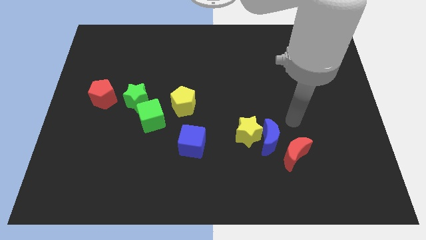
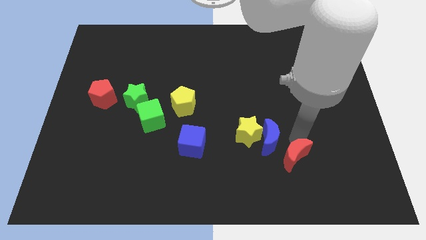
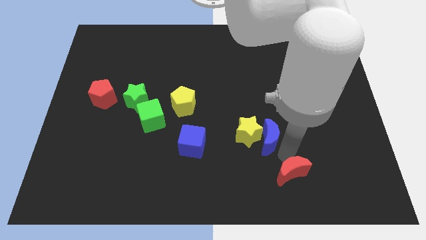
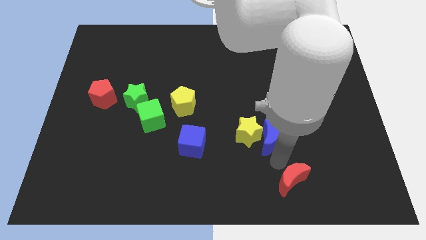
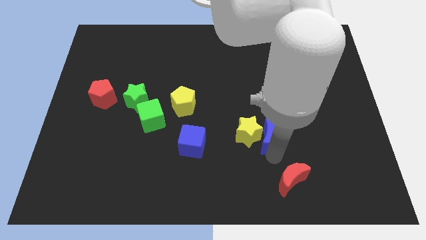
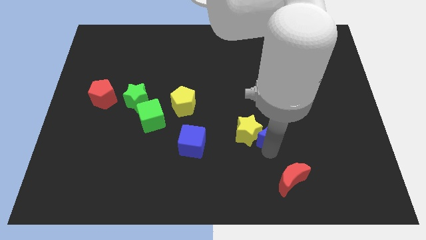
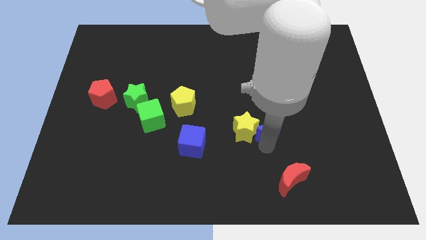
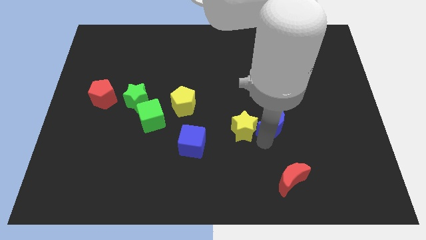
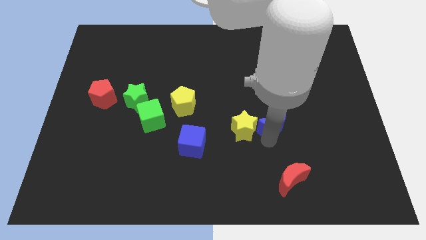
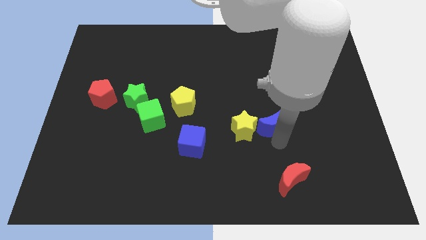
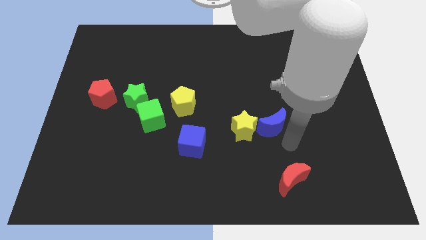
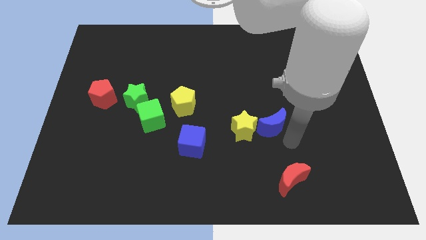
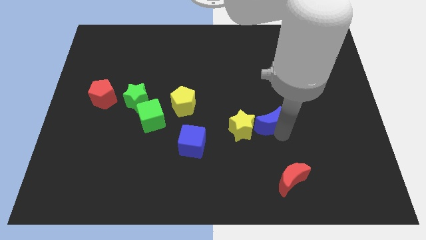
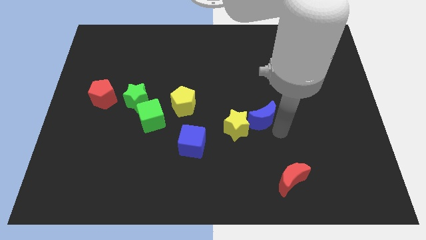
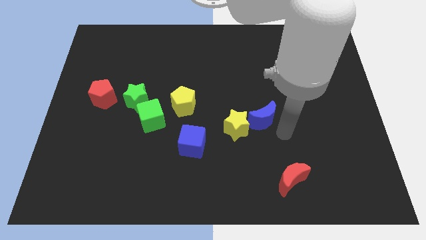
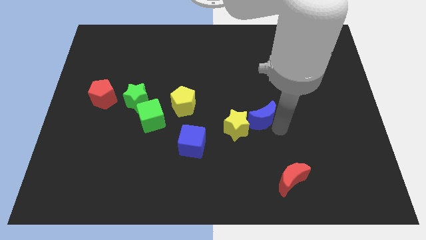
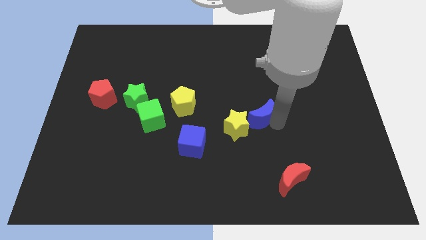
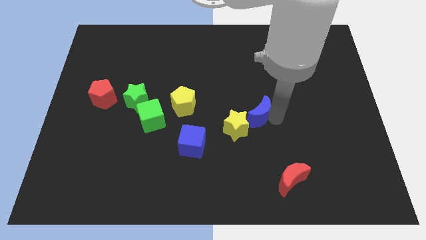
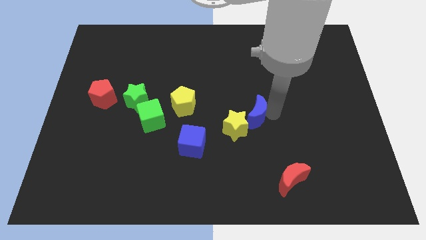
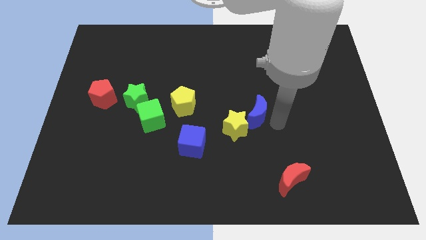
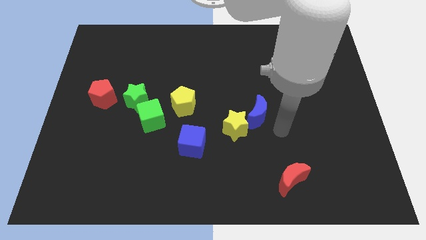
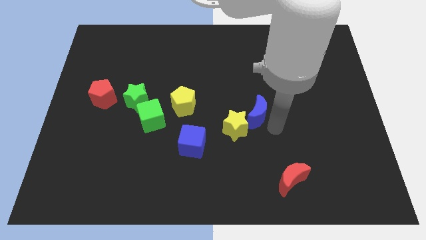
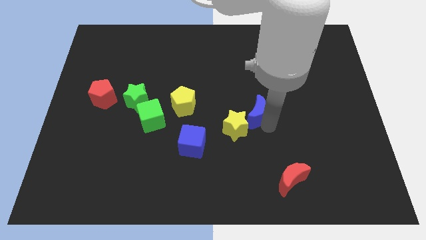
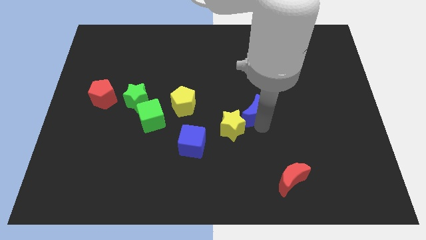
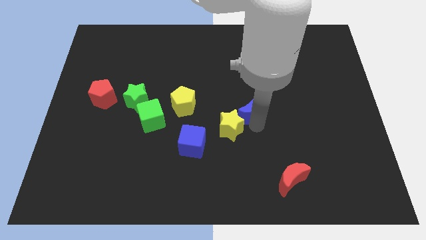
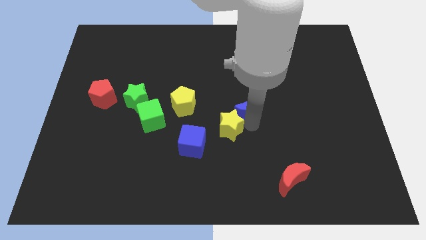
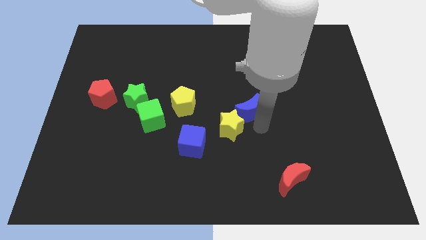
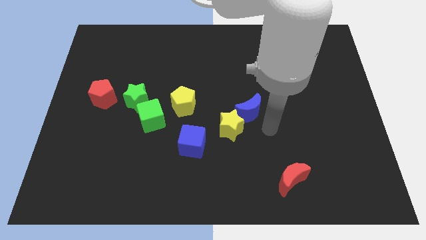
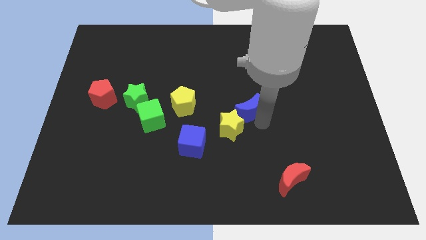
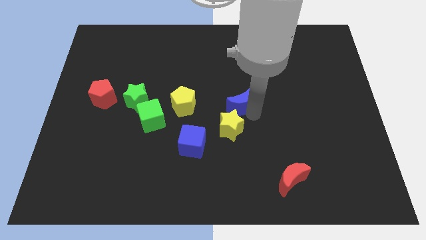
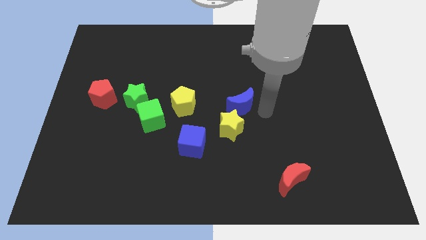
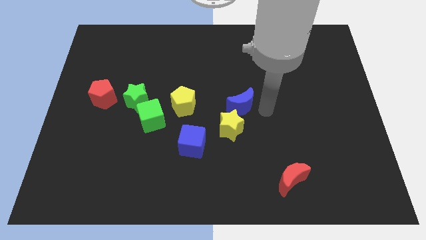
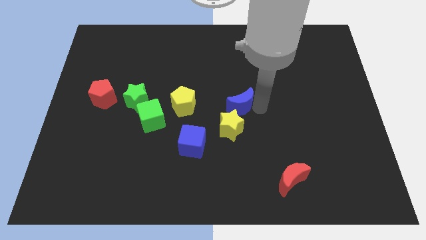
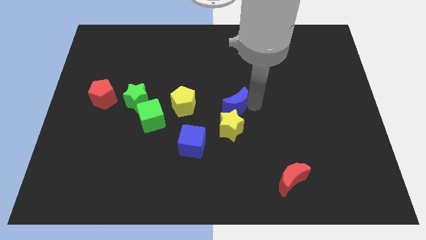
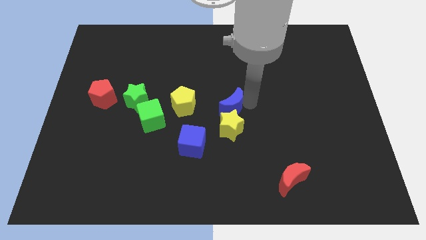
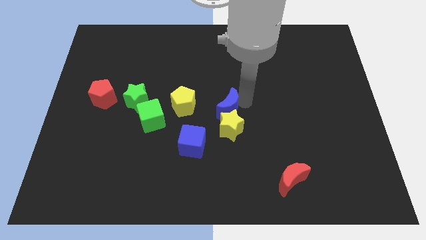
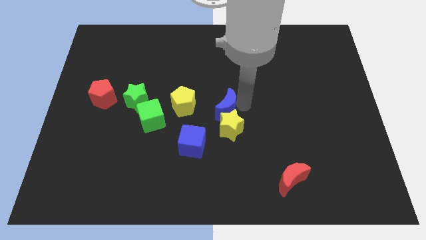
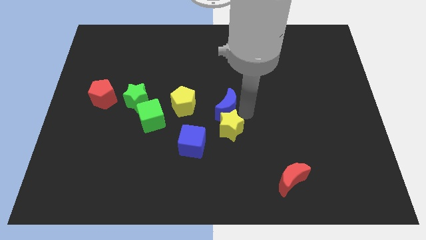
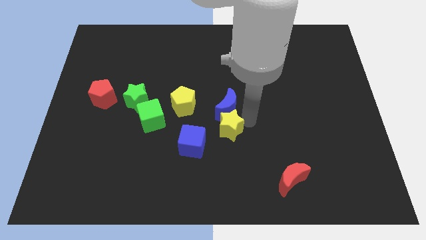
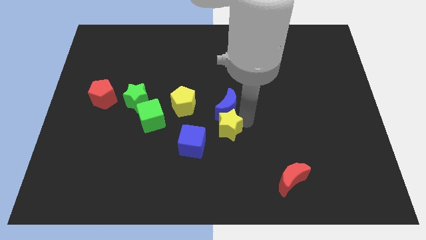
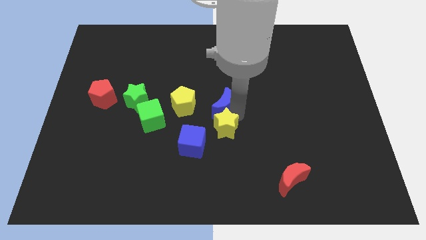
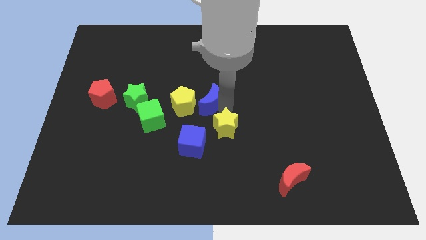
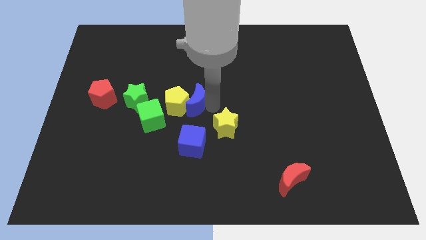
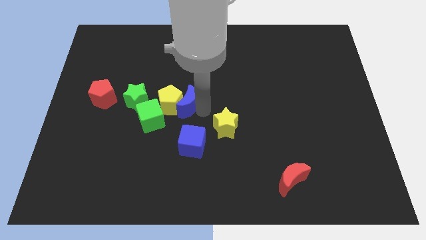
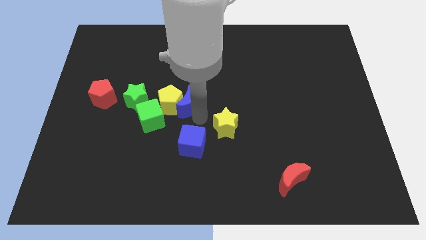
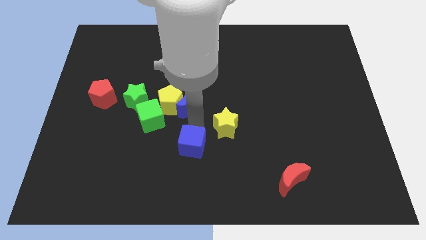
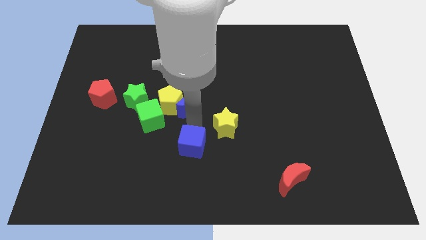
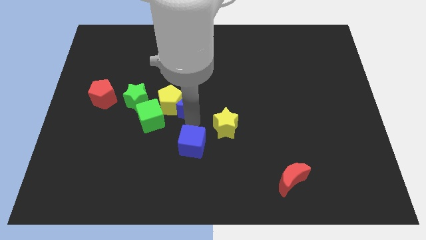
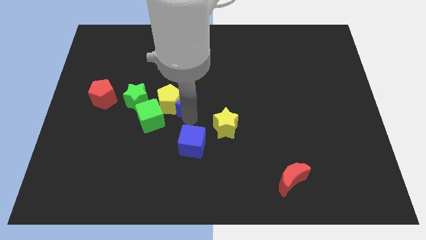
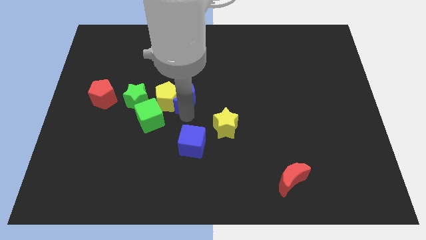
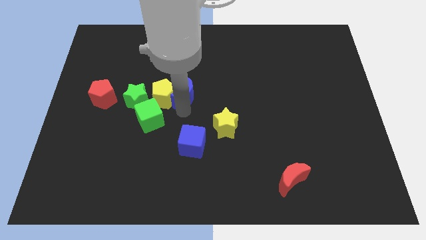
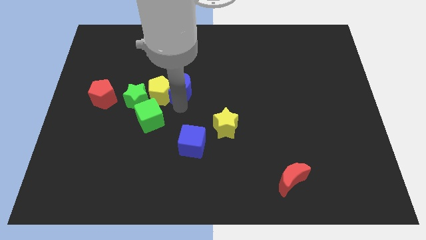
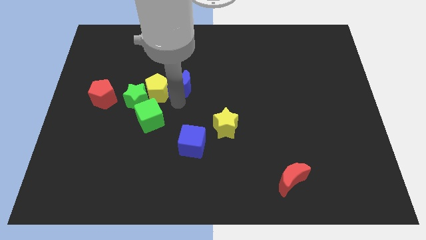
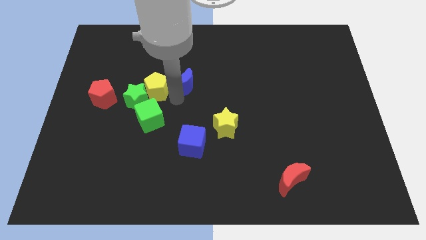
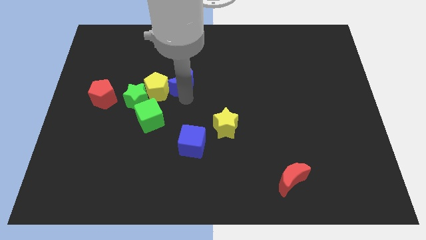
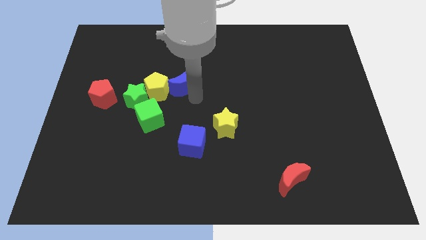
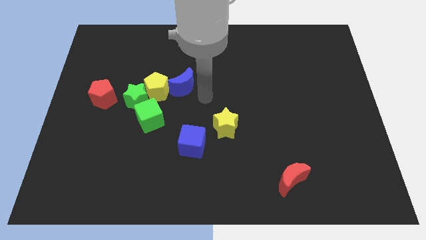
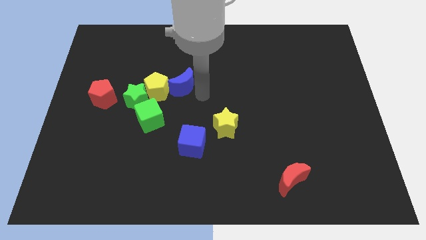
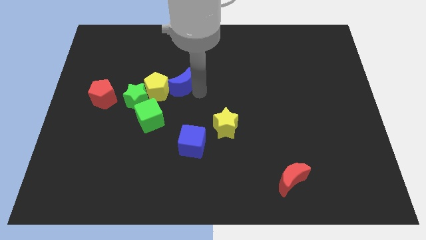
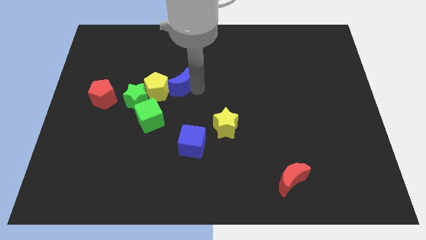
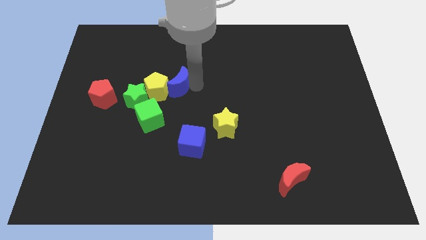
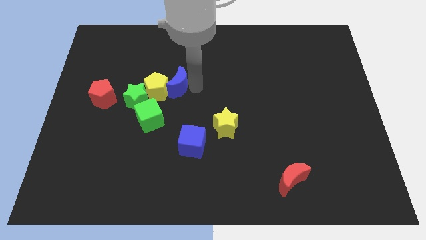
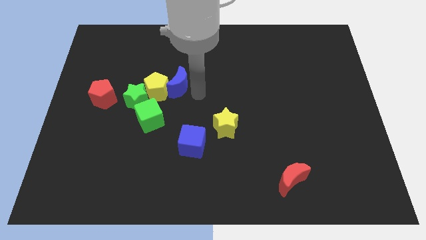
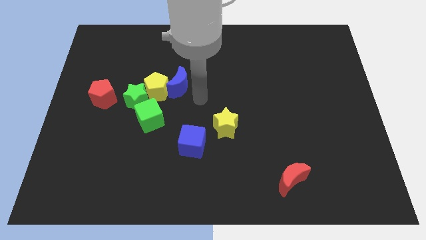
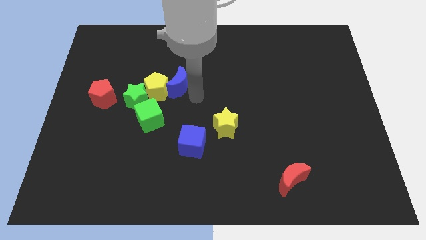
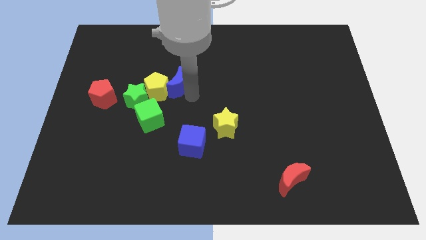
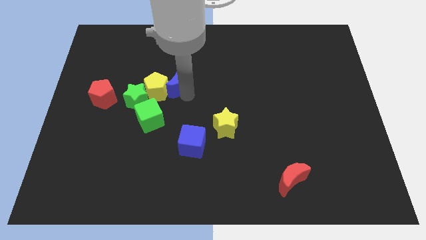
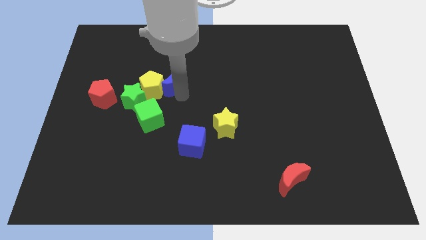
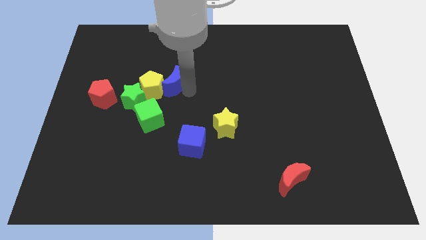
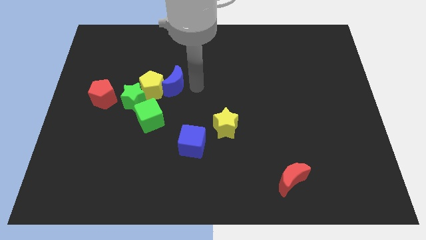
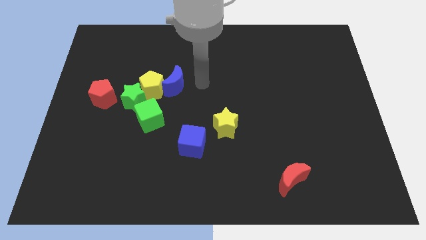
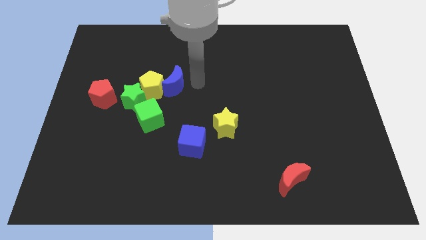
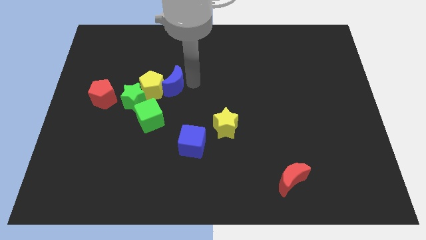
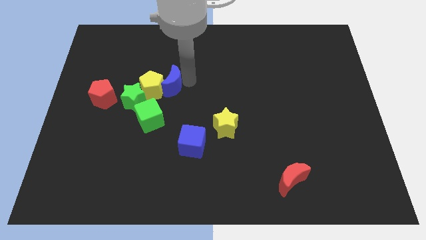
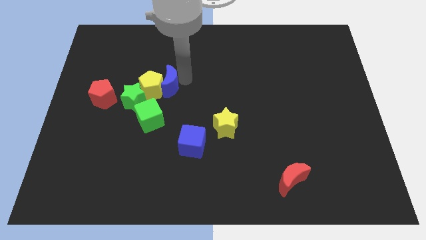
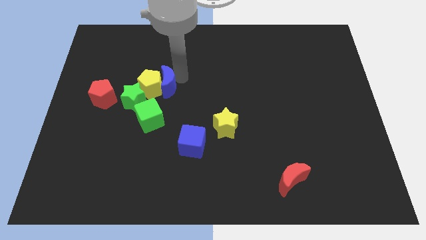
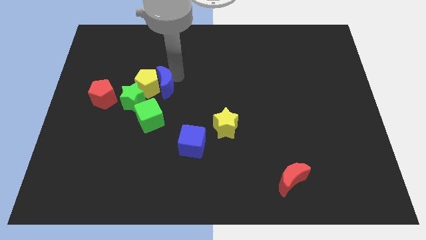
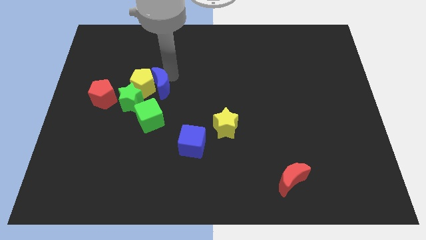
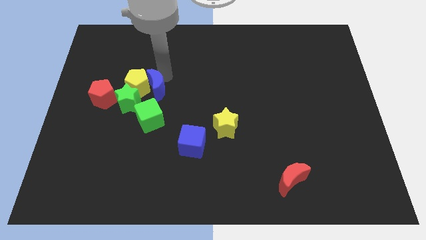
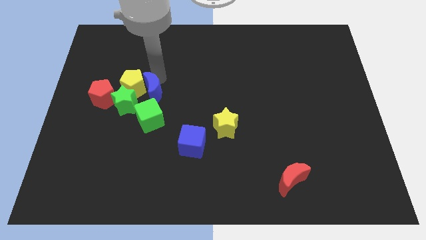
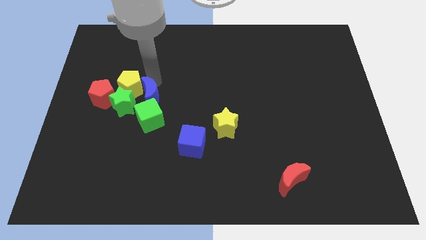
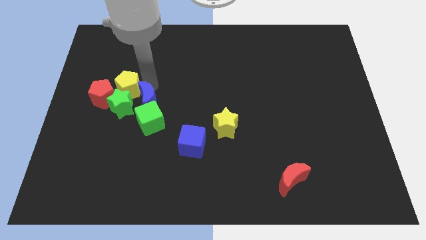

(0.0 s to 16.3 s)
slide the blue moon close to the green star
